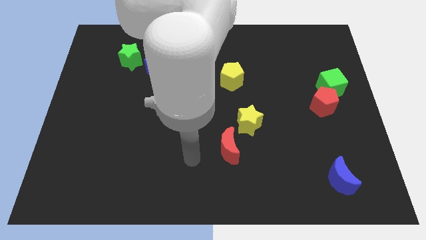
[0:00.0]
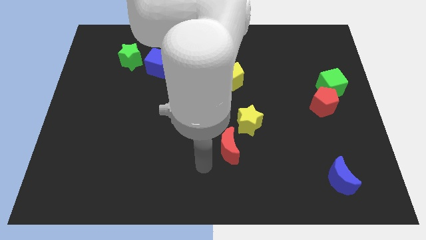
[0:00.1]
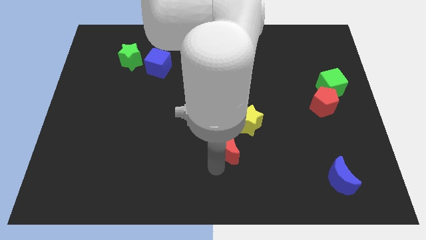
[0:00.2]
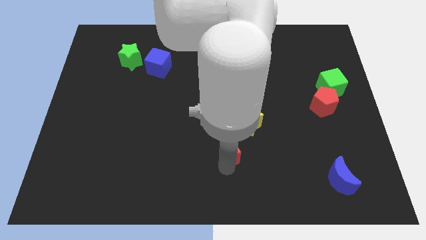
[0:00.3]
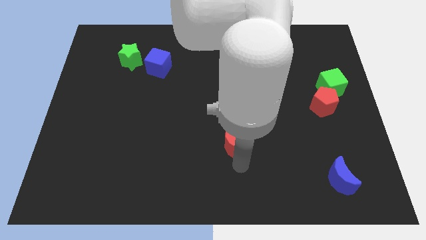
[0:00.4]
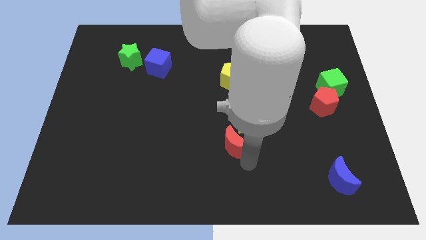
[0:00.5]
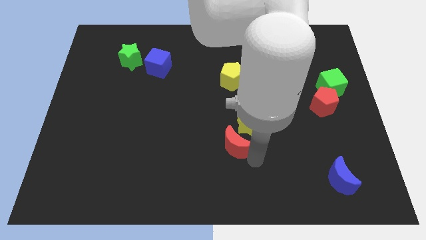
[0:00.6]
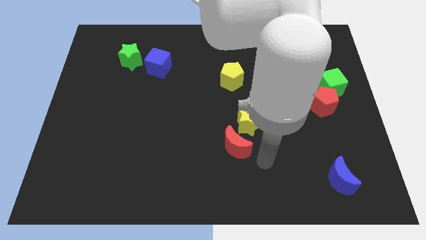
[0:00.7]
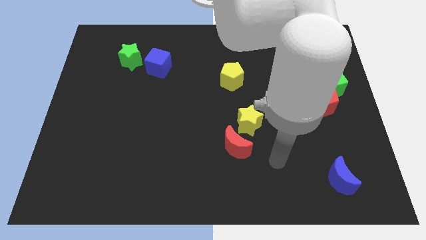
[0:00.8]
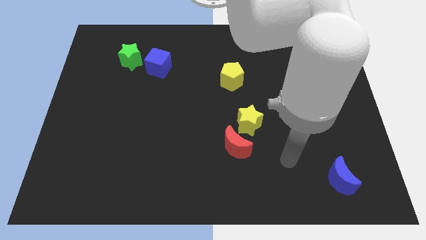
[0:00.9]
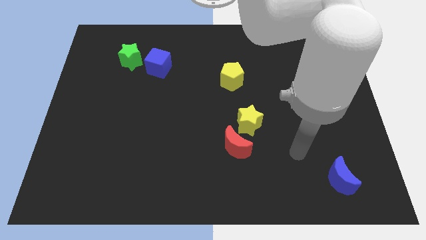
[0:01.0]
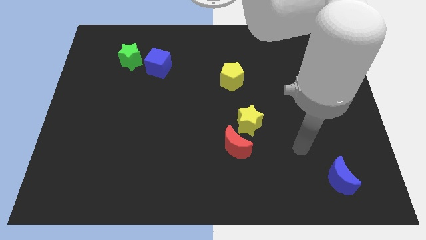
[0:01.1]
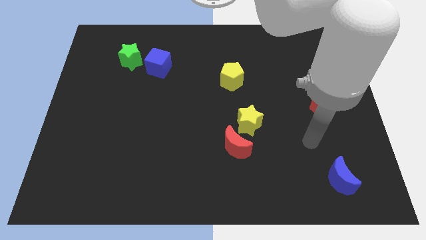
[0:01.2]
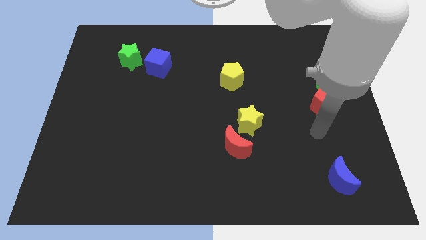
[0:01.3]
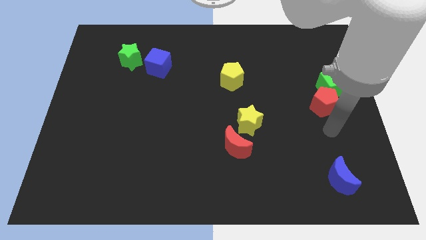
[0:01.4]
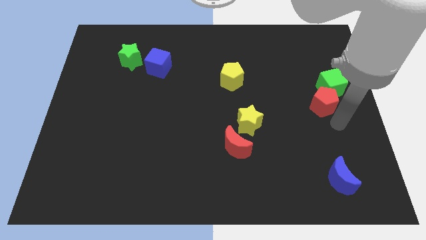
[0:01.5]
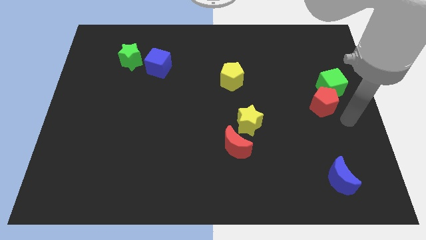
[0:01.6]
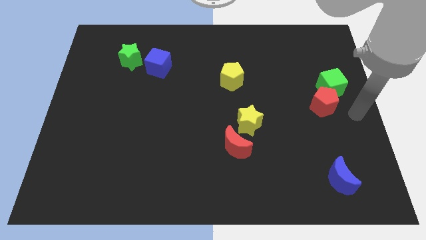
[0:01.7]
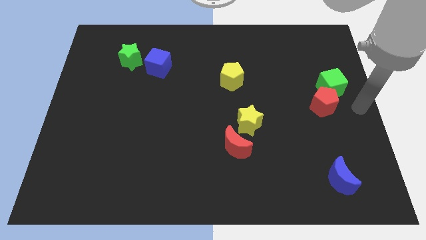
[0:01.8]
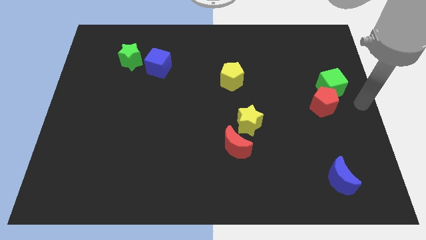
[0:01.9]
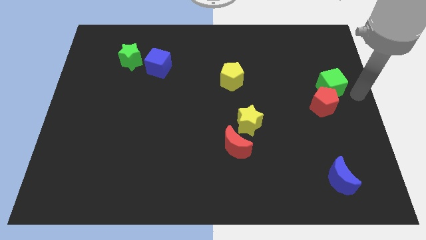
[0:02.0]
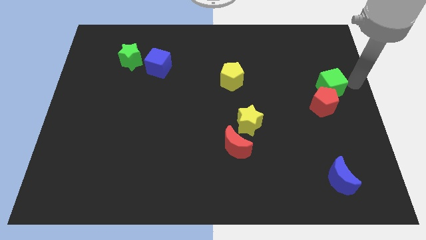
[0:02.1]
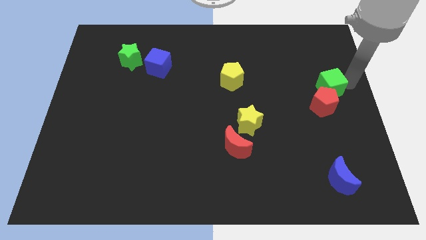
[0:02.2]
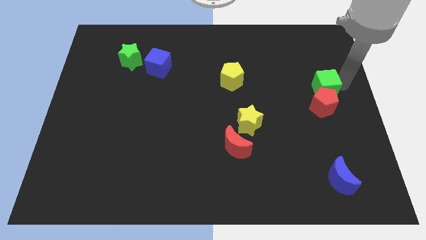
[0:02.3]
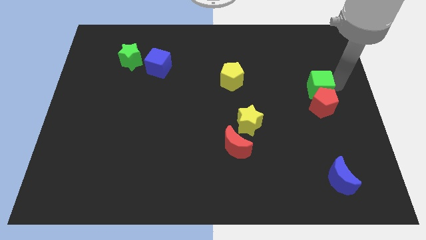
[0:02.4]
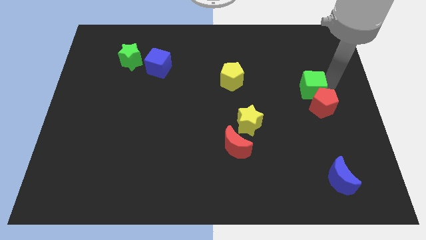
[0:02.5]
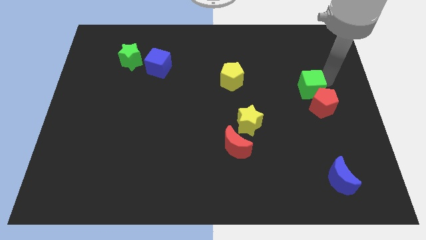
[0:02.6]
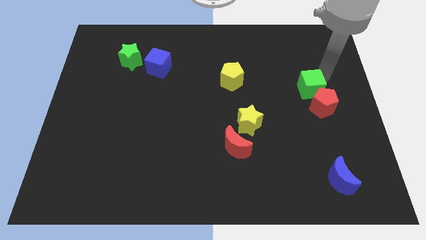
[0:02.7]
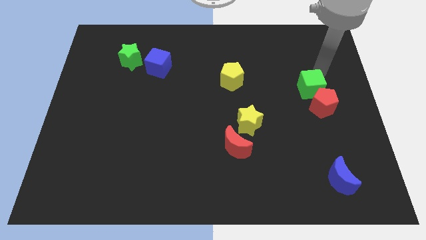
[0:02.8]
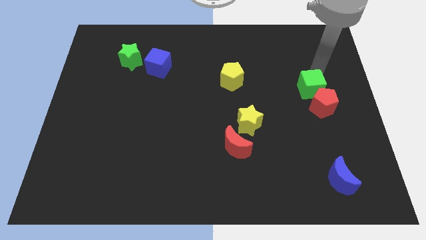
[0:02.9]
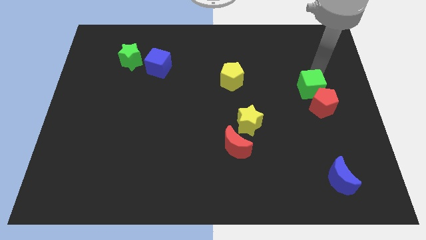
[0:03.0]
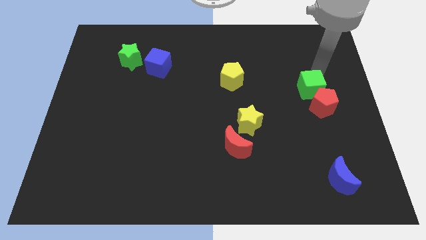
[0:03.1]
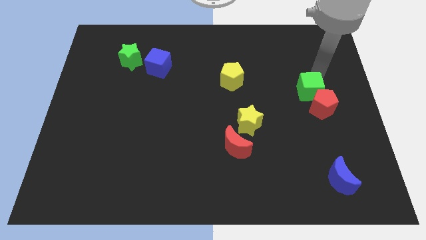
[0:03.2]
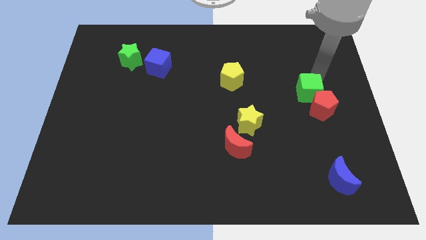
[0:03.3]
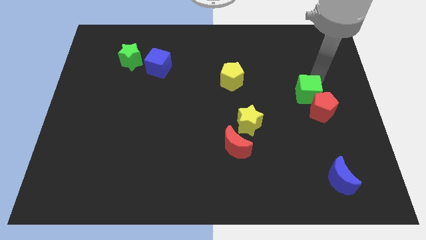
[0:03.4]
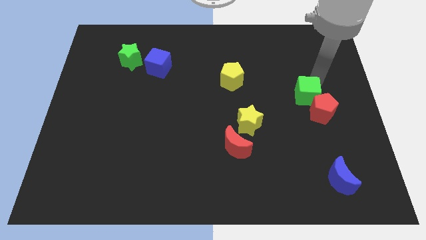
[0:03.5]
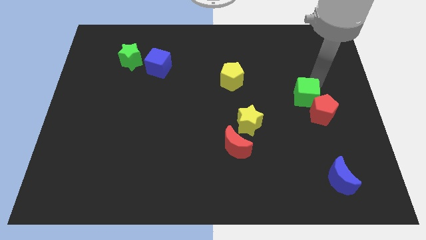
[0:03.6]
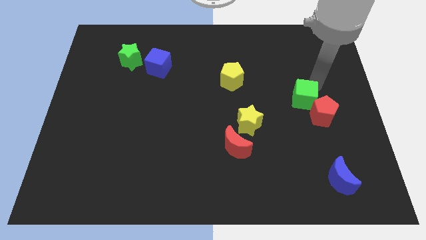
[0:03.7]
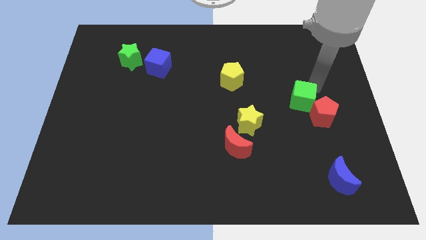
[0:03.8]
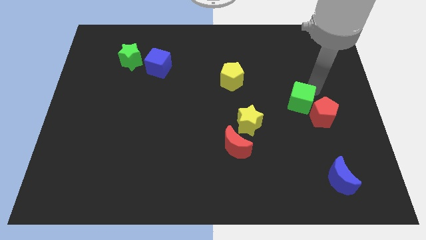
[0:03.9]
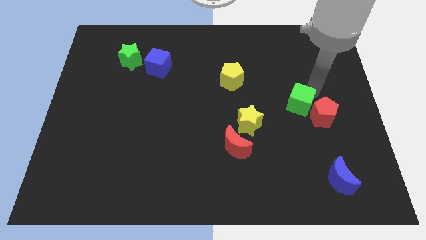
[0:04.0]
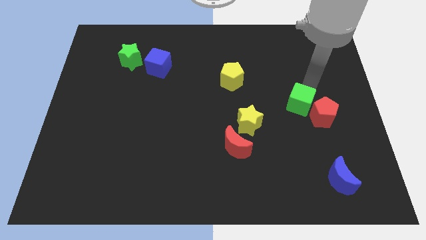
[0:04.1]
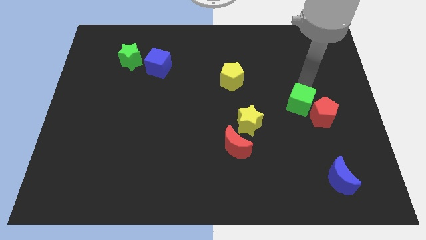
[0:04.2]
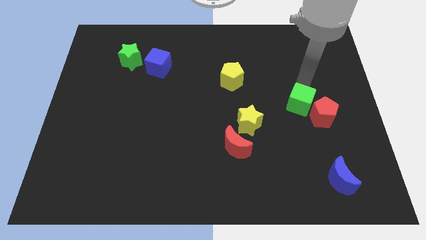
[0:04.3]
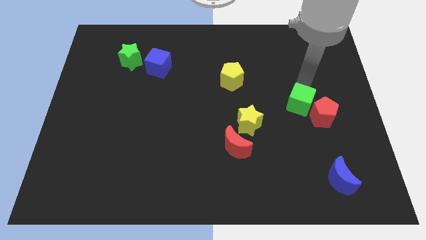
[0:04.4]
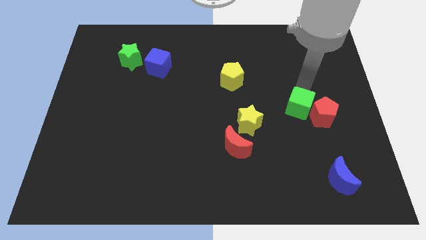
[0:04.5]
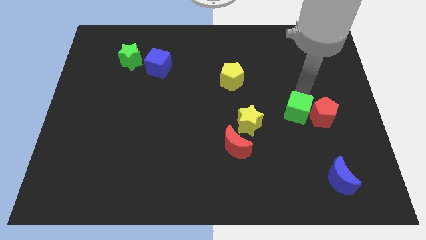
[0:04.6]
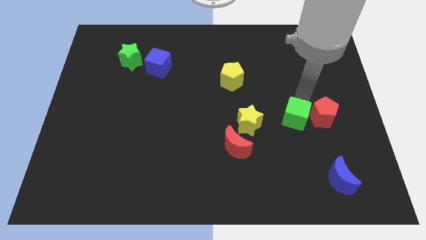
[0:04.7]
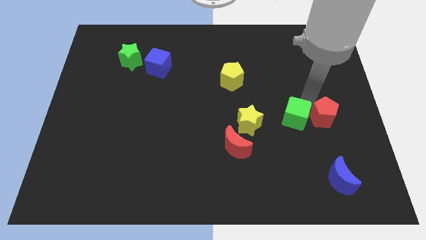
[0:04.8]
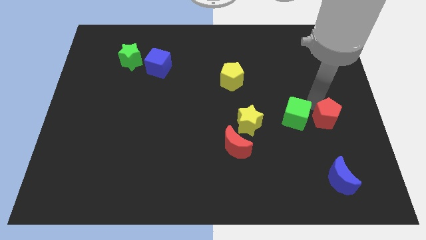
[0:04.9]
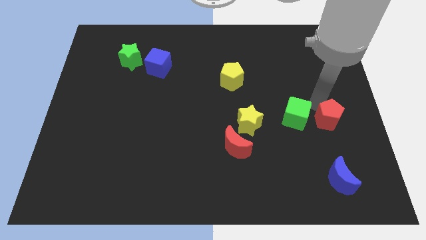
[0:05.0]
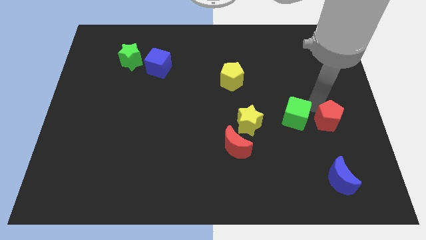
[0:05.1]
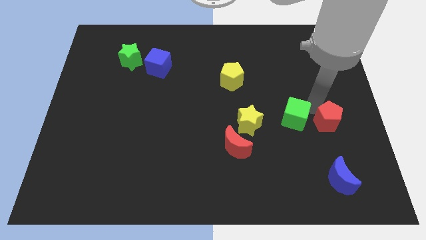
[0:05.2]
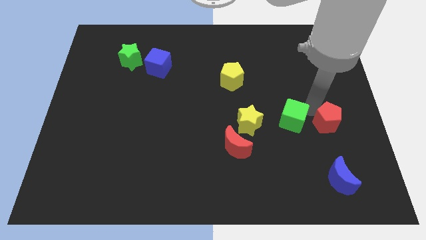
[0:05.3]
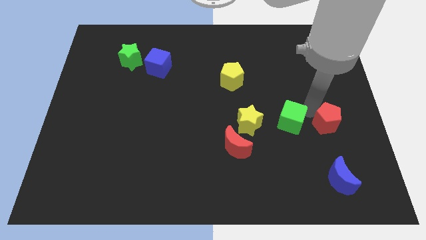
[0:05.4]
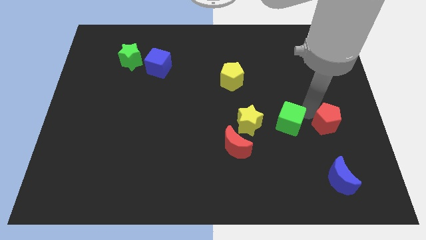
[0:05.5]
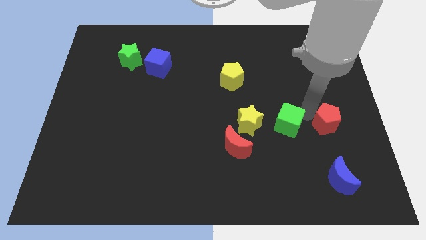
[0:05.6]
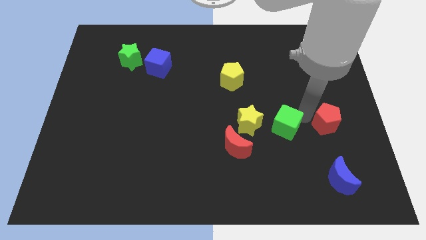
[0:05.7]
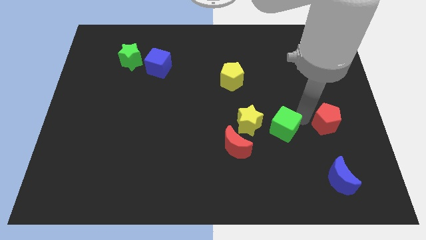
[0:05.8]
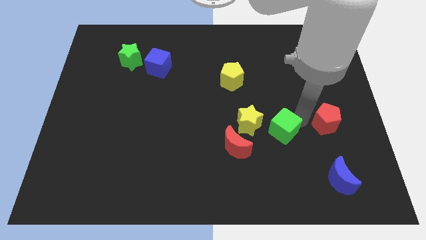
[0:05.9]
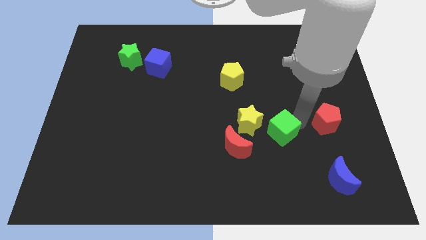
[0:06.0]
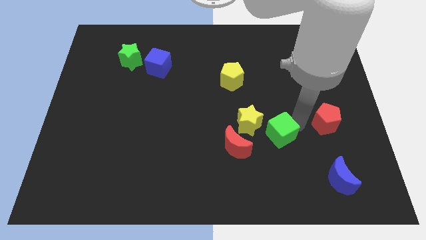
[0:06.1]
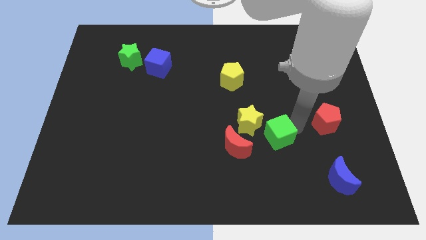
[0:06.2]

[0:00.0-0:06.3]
push the green cube downwards and left diagonally

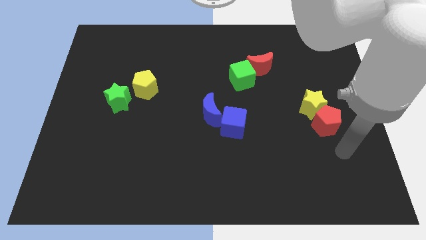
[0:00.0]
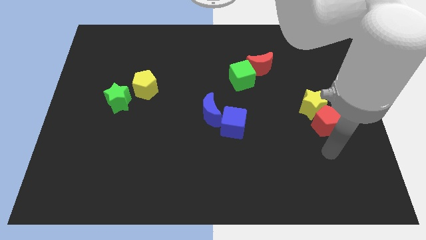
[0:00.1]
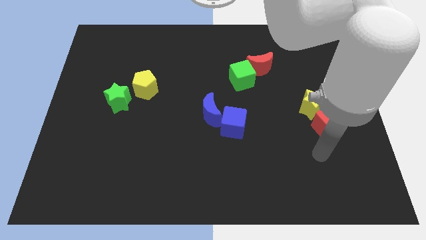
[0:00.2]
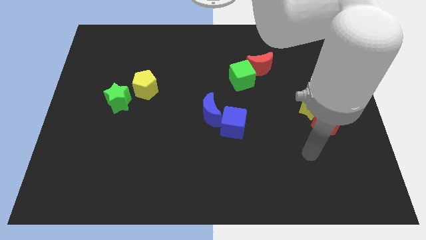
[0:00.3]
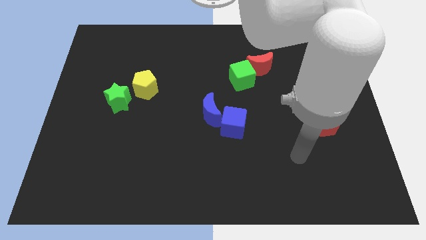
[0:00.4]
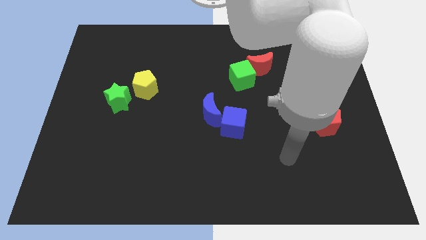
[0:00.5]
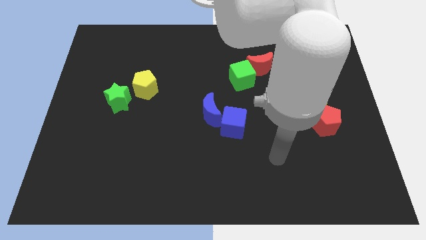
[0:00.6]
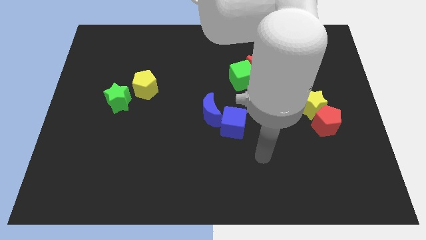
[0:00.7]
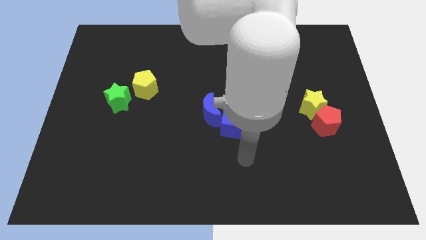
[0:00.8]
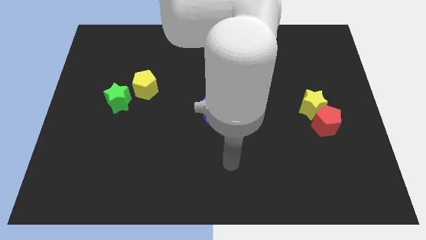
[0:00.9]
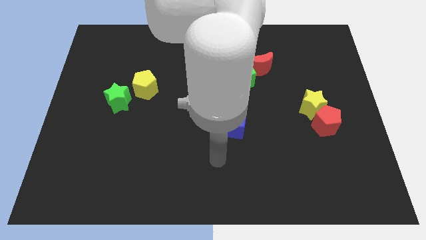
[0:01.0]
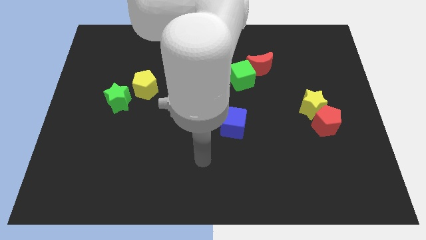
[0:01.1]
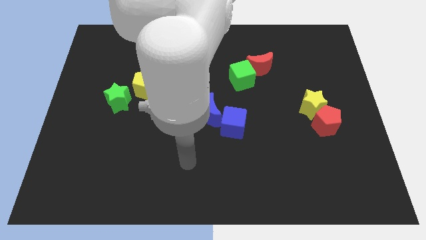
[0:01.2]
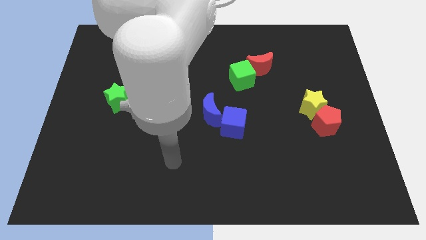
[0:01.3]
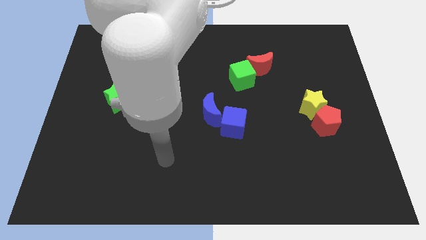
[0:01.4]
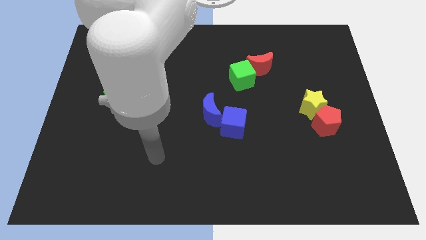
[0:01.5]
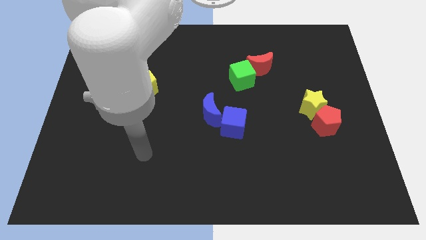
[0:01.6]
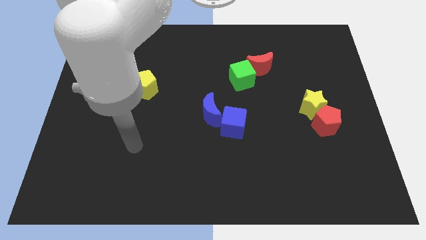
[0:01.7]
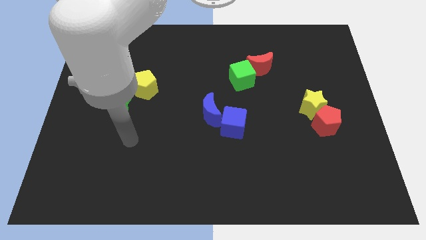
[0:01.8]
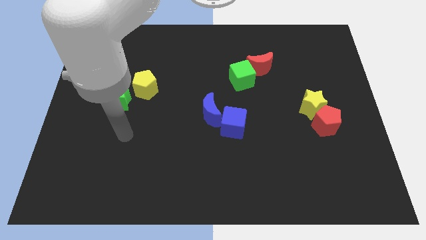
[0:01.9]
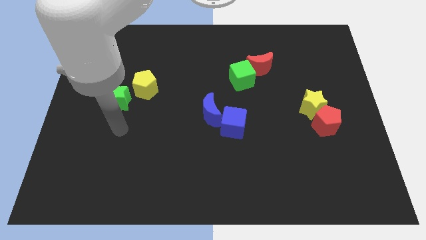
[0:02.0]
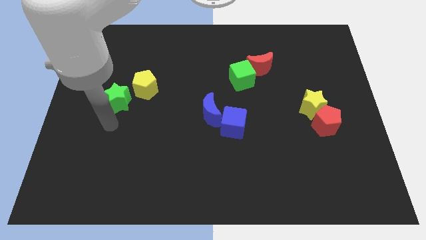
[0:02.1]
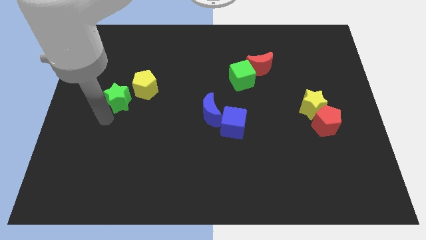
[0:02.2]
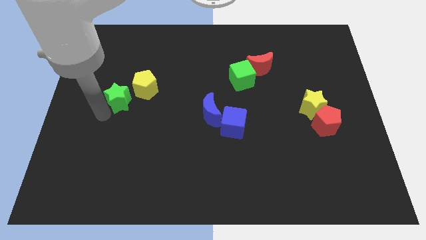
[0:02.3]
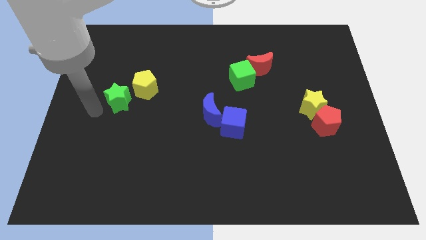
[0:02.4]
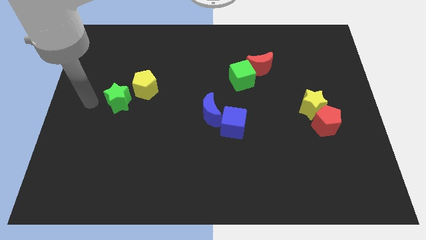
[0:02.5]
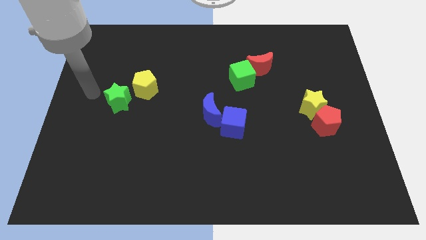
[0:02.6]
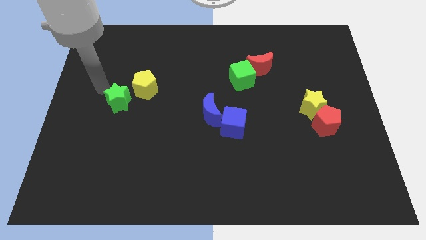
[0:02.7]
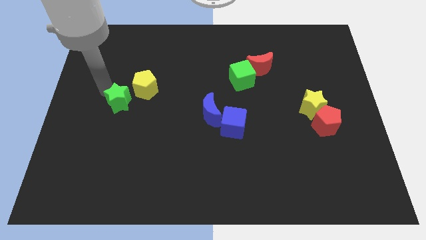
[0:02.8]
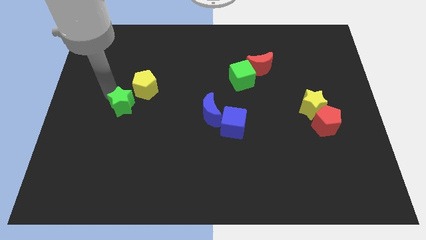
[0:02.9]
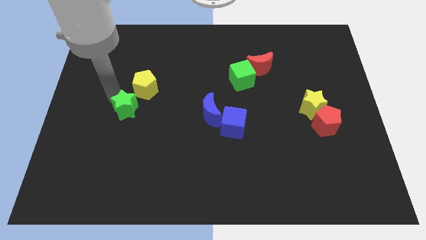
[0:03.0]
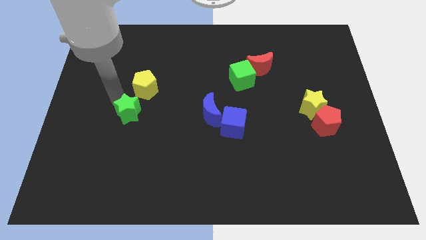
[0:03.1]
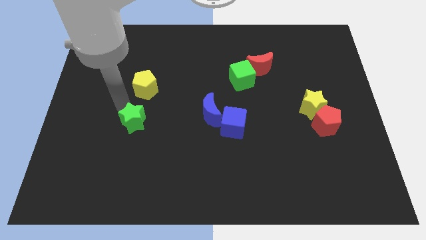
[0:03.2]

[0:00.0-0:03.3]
move the green star diagonally down and to the right a bit
